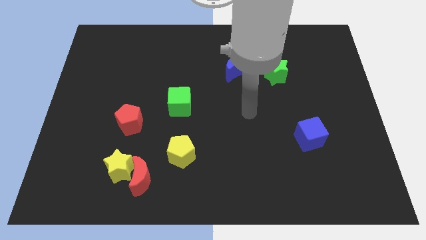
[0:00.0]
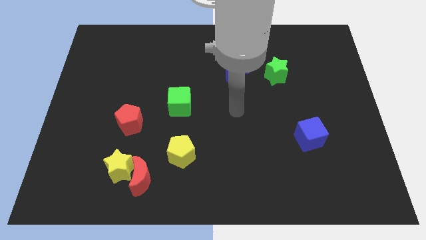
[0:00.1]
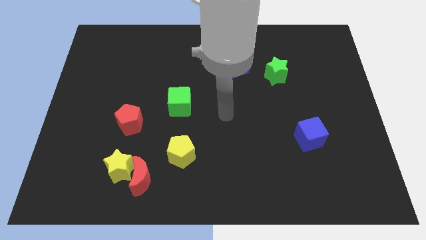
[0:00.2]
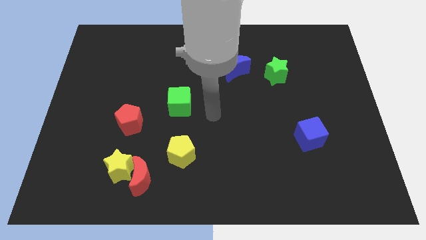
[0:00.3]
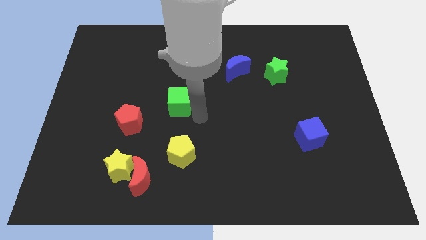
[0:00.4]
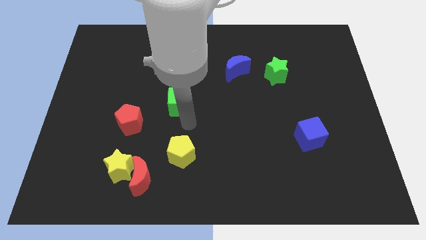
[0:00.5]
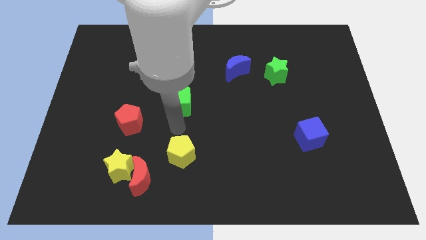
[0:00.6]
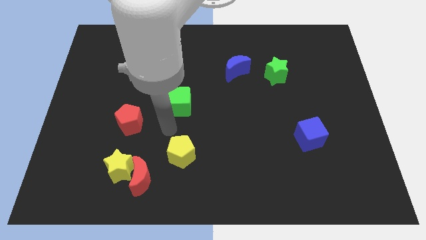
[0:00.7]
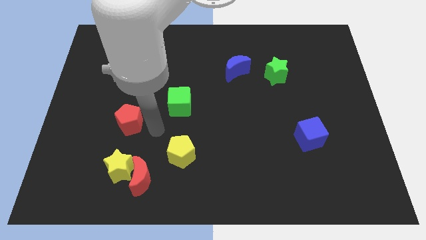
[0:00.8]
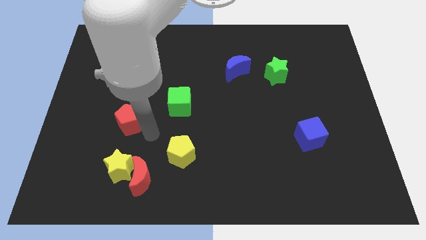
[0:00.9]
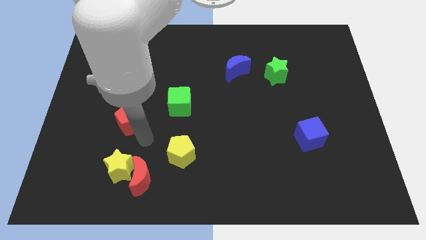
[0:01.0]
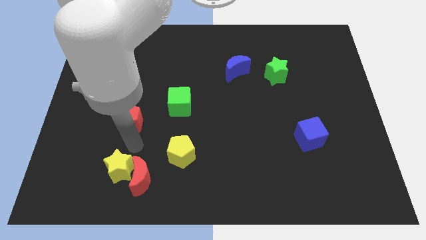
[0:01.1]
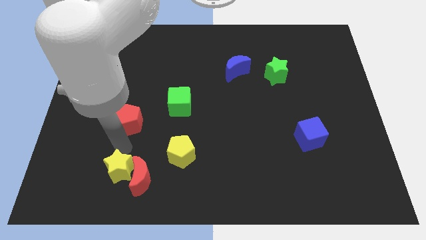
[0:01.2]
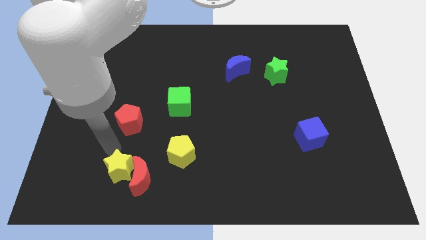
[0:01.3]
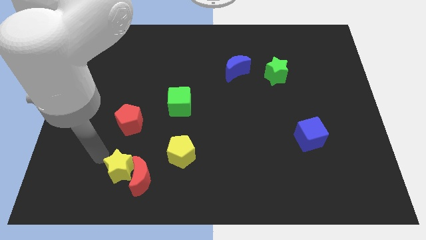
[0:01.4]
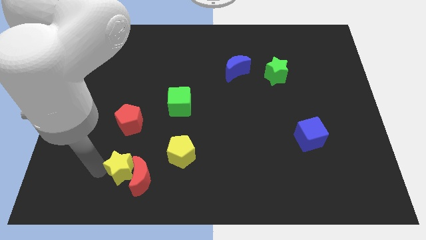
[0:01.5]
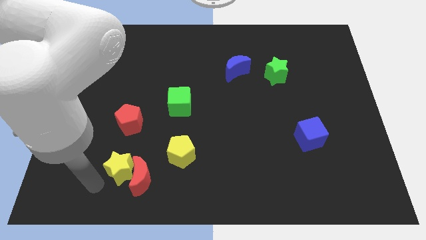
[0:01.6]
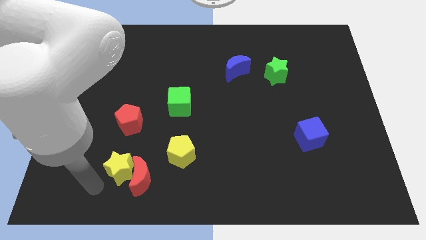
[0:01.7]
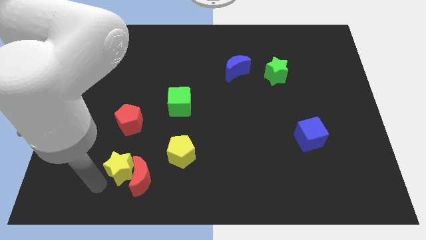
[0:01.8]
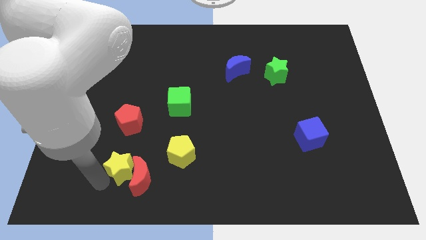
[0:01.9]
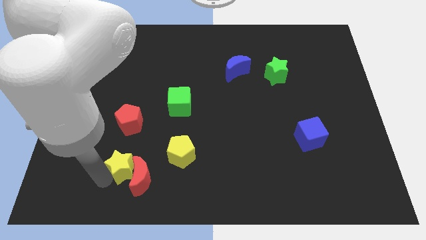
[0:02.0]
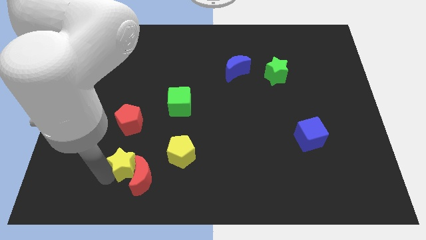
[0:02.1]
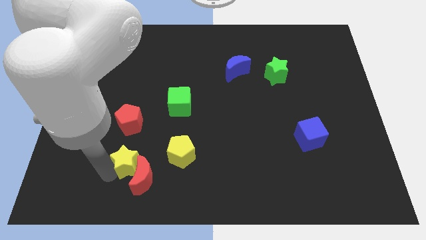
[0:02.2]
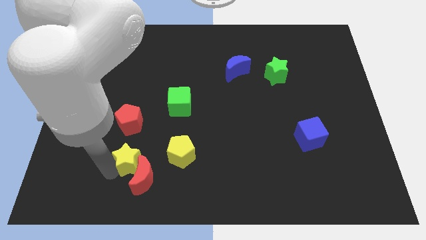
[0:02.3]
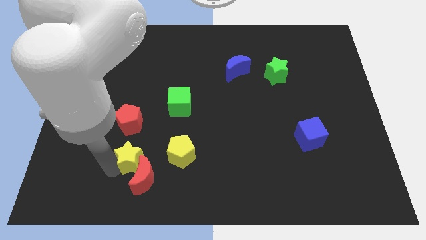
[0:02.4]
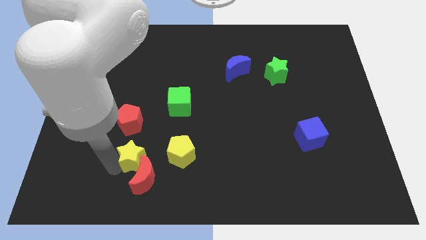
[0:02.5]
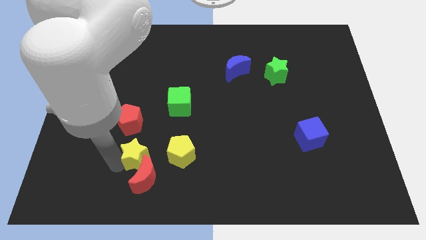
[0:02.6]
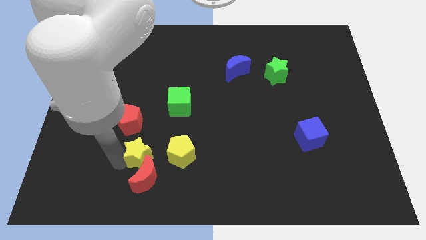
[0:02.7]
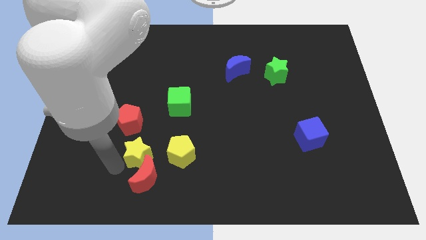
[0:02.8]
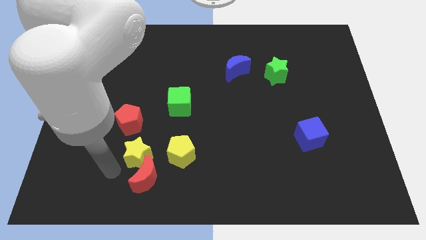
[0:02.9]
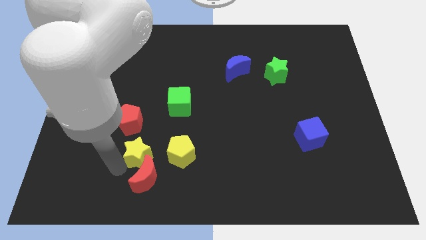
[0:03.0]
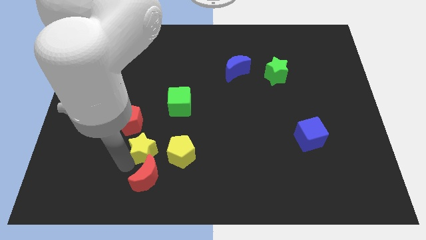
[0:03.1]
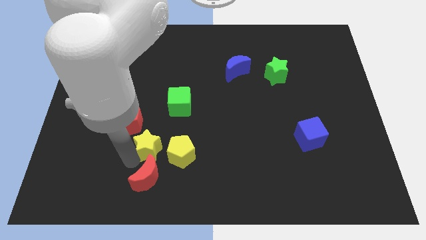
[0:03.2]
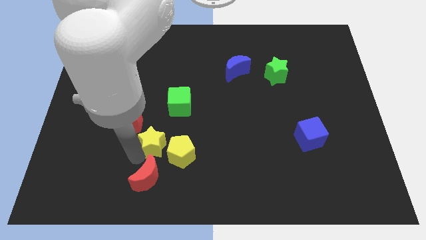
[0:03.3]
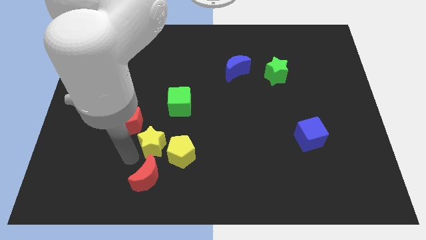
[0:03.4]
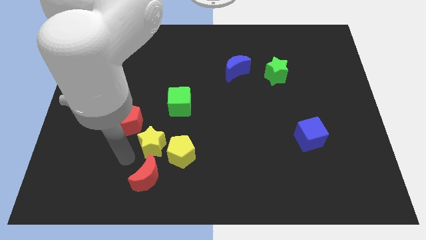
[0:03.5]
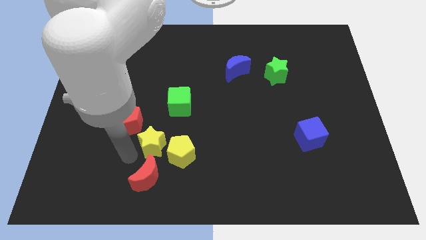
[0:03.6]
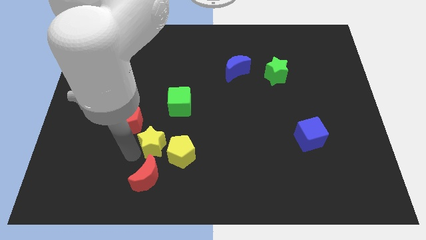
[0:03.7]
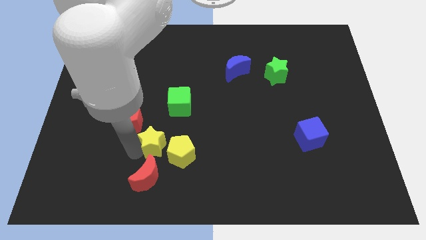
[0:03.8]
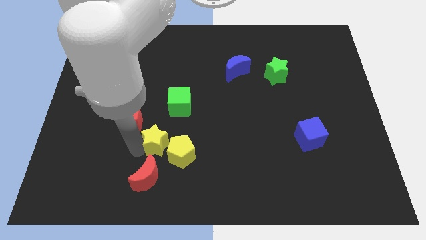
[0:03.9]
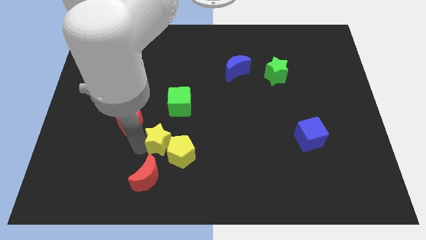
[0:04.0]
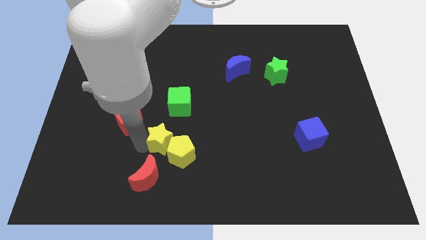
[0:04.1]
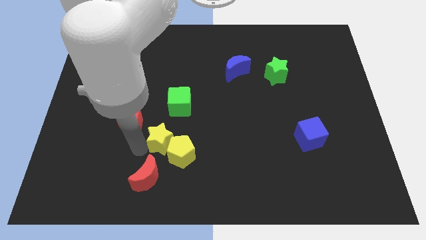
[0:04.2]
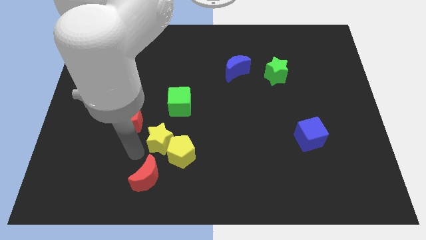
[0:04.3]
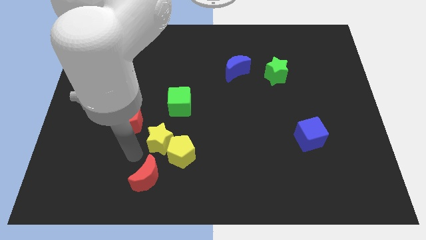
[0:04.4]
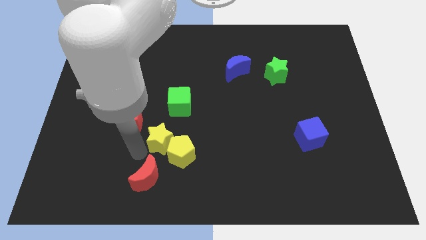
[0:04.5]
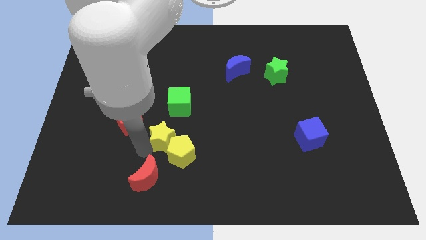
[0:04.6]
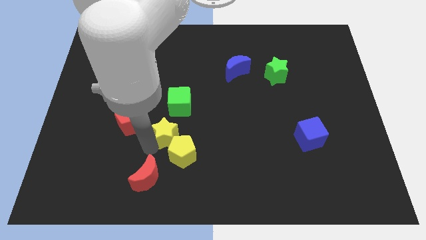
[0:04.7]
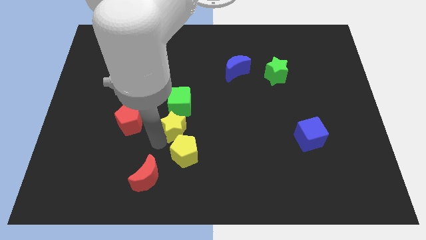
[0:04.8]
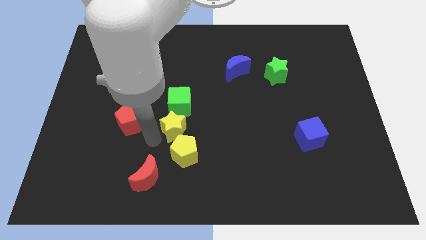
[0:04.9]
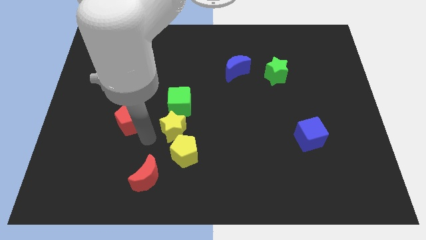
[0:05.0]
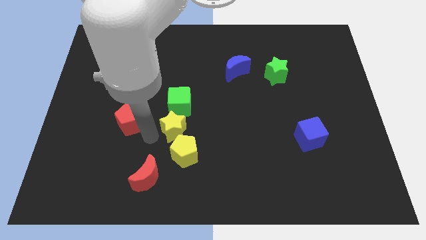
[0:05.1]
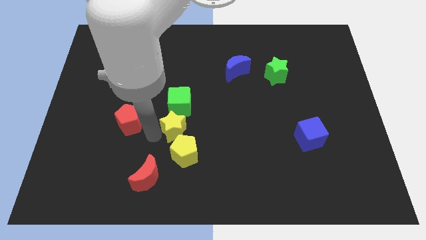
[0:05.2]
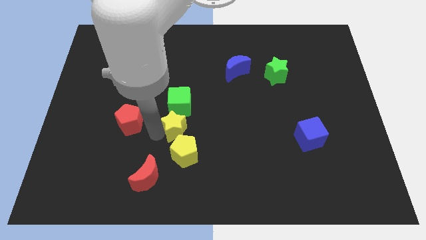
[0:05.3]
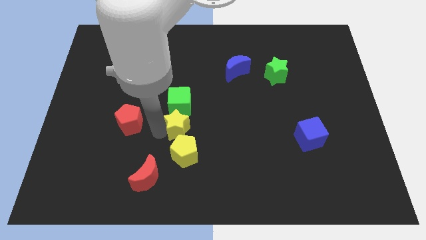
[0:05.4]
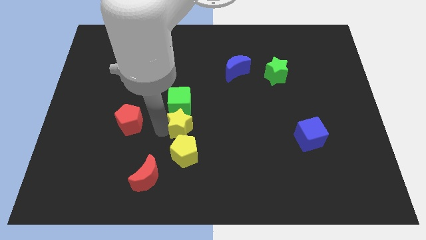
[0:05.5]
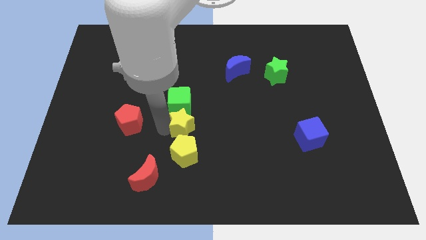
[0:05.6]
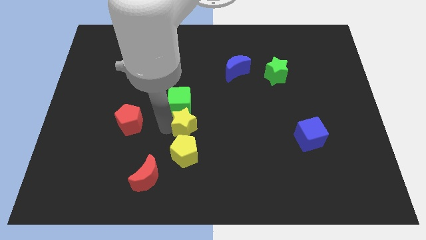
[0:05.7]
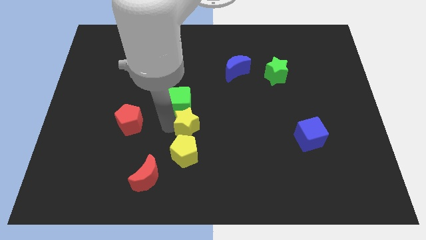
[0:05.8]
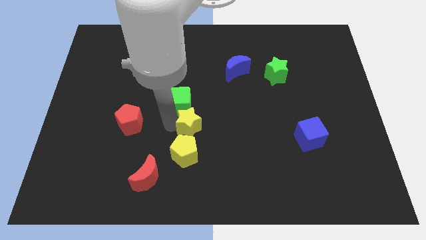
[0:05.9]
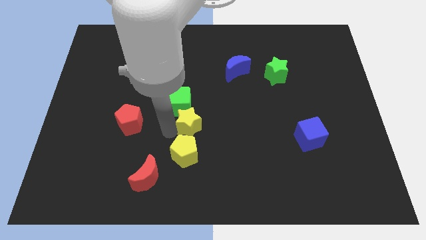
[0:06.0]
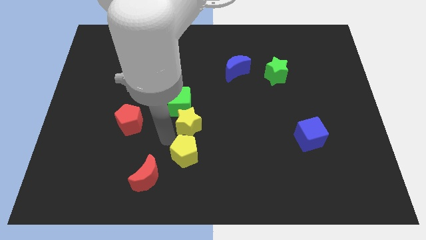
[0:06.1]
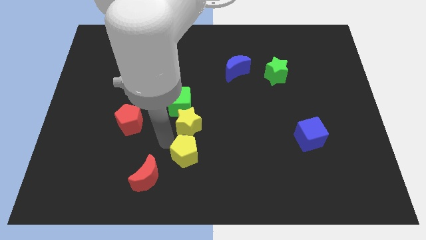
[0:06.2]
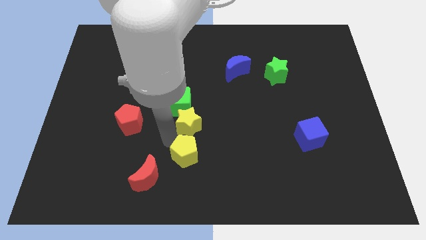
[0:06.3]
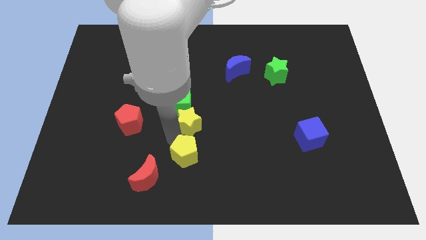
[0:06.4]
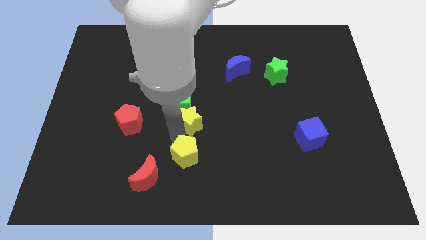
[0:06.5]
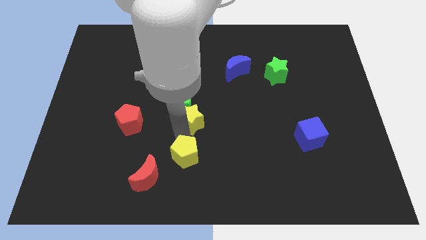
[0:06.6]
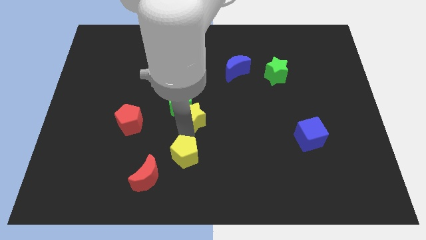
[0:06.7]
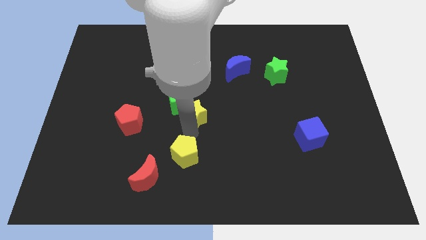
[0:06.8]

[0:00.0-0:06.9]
push the yellow star diagonally up and to the right

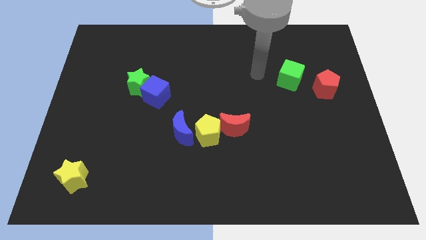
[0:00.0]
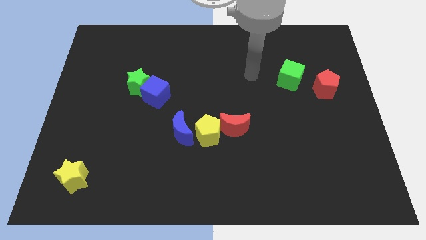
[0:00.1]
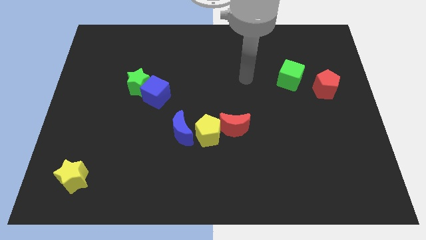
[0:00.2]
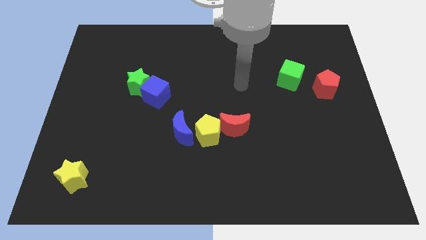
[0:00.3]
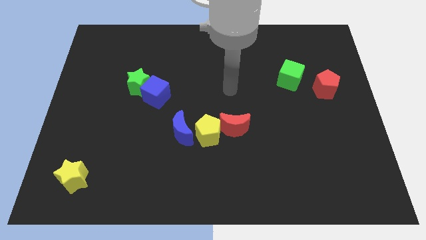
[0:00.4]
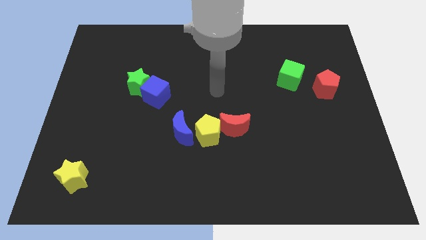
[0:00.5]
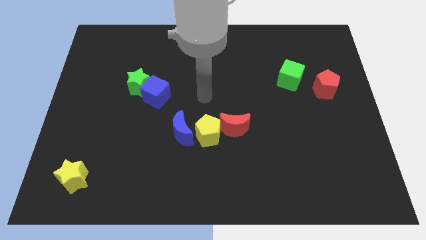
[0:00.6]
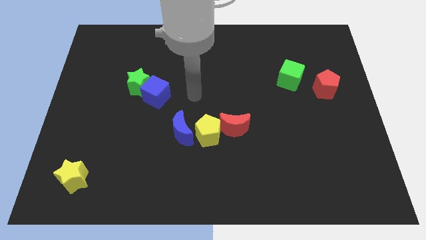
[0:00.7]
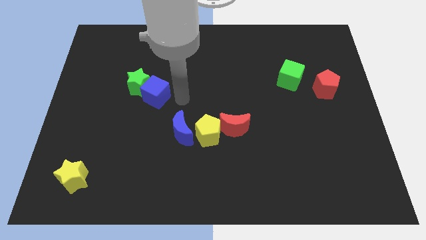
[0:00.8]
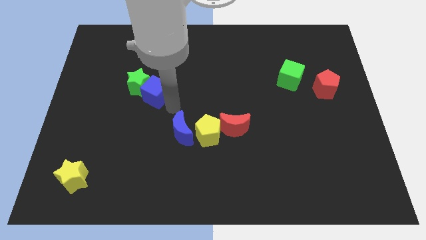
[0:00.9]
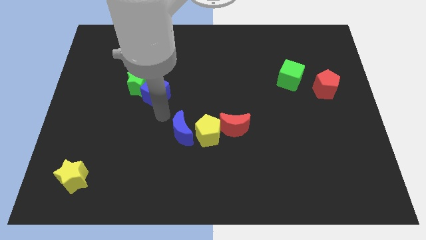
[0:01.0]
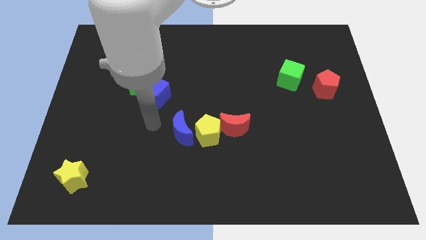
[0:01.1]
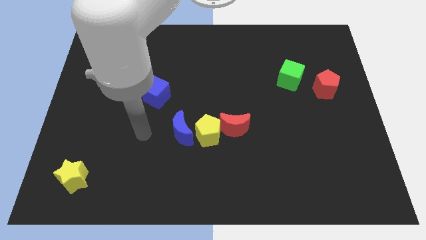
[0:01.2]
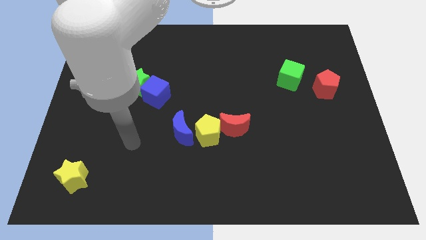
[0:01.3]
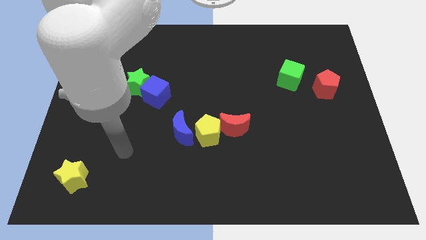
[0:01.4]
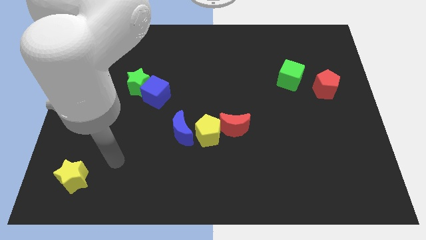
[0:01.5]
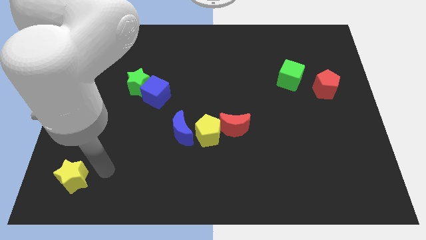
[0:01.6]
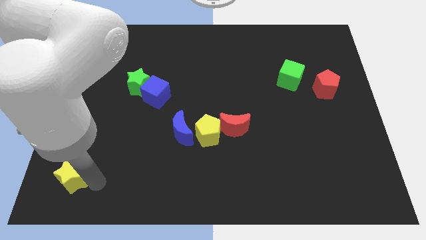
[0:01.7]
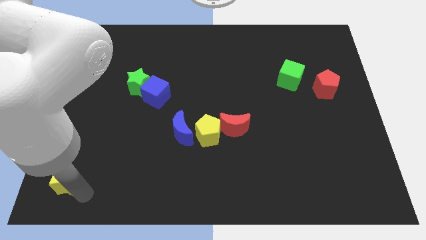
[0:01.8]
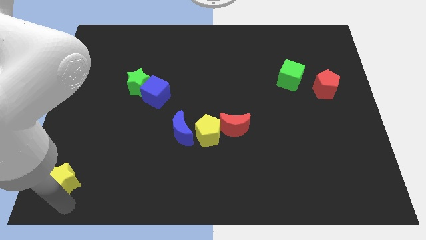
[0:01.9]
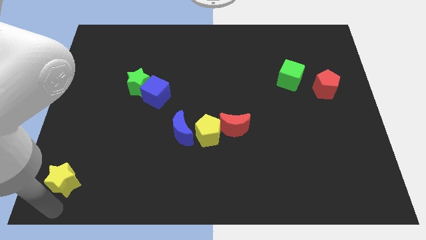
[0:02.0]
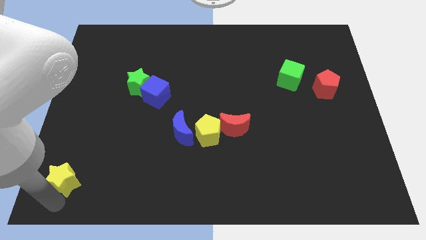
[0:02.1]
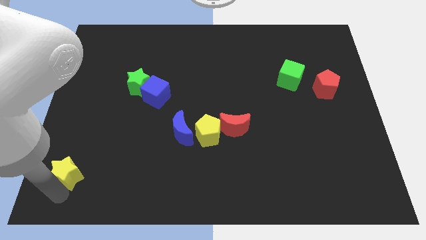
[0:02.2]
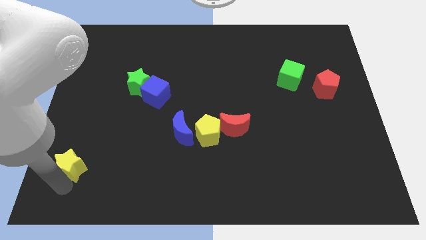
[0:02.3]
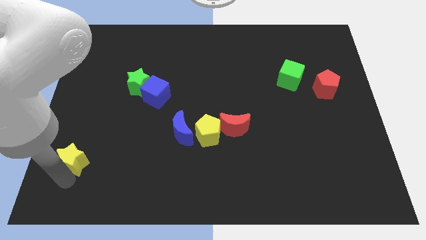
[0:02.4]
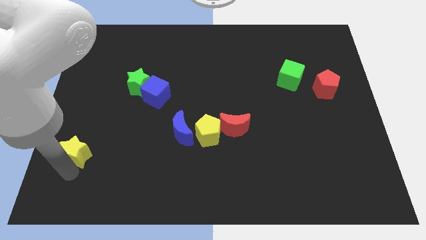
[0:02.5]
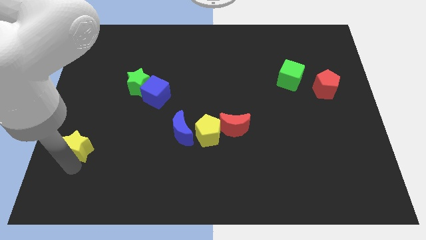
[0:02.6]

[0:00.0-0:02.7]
slide the yellow star up a little
